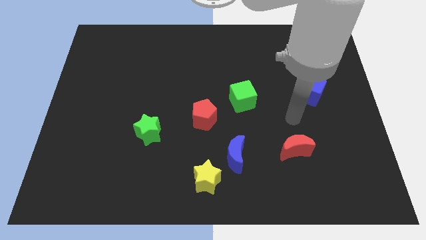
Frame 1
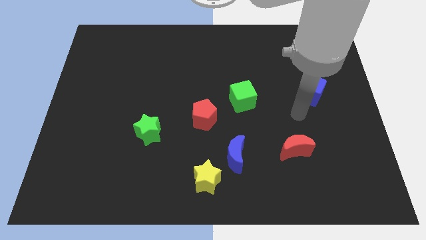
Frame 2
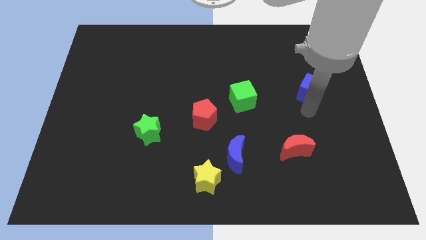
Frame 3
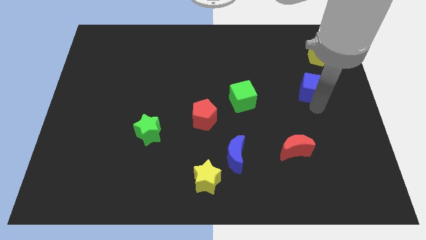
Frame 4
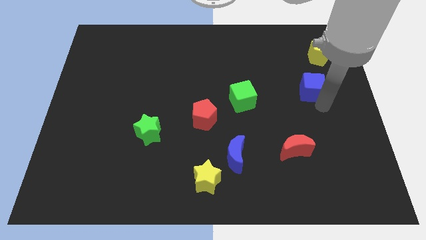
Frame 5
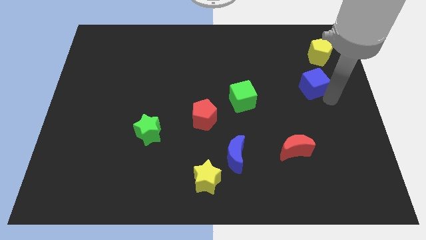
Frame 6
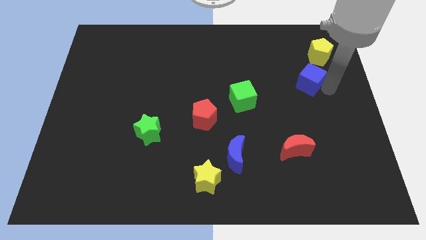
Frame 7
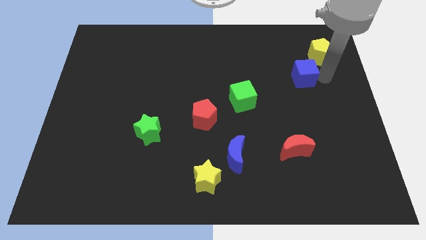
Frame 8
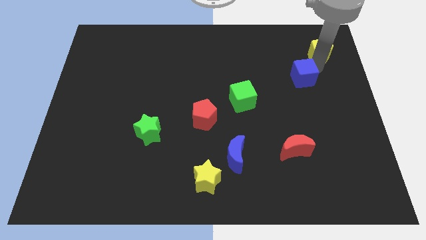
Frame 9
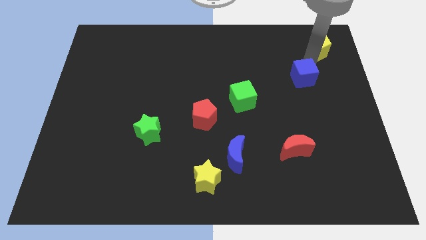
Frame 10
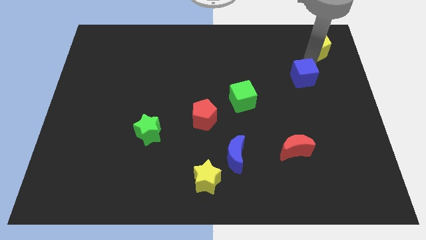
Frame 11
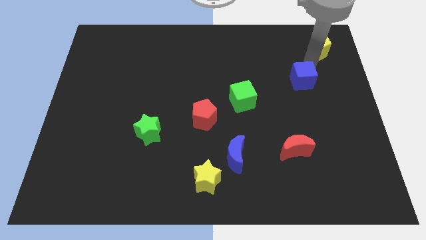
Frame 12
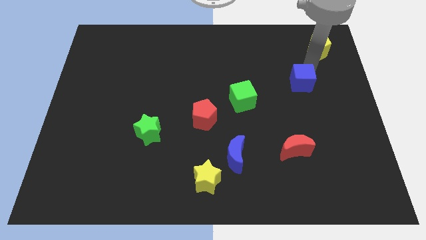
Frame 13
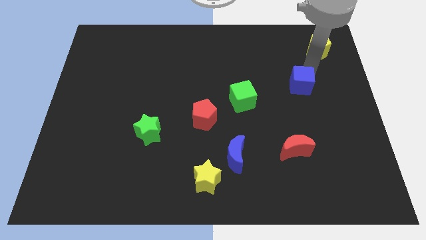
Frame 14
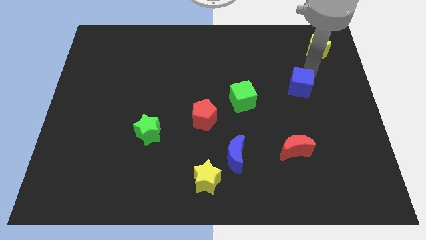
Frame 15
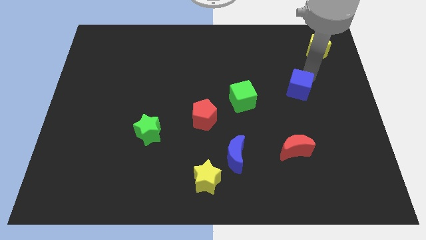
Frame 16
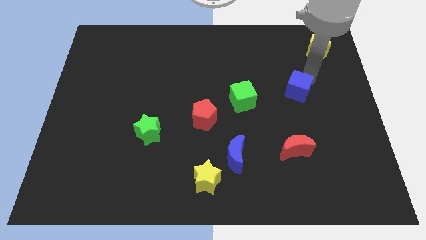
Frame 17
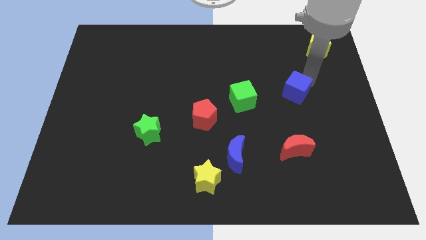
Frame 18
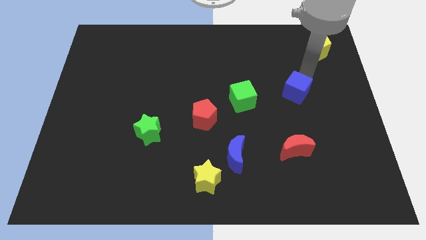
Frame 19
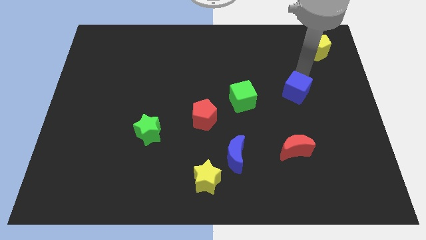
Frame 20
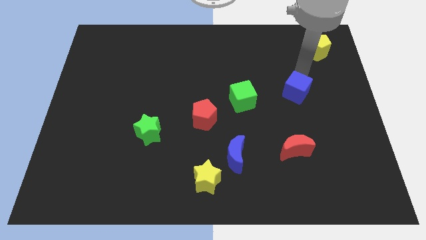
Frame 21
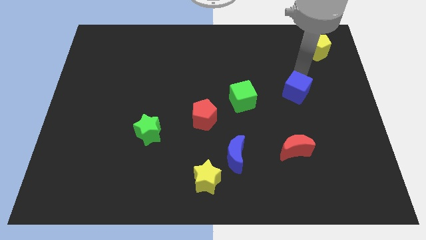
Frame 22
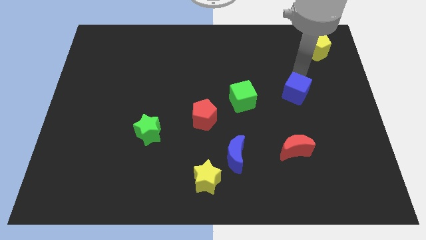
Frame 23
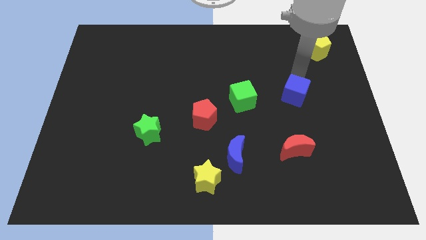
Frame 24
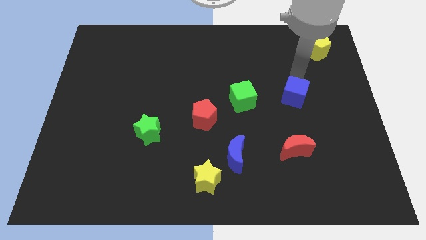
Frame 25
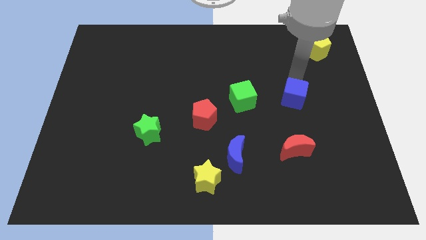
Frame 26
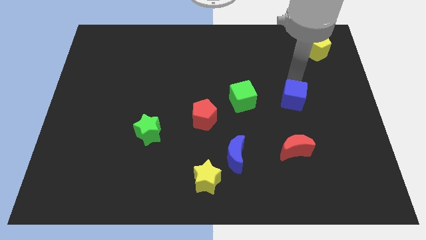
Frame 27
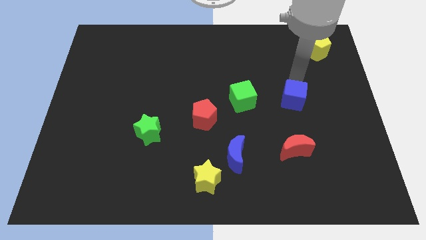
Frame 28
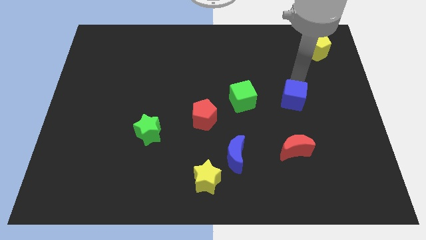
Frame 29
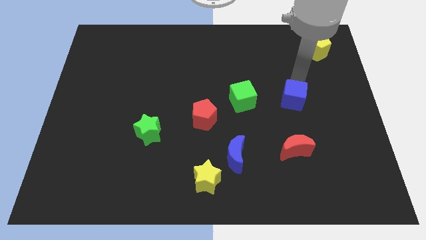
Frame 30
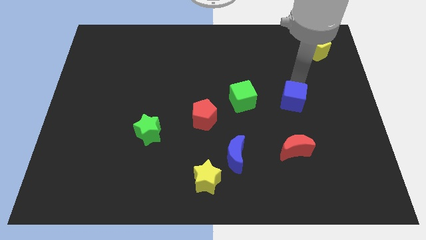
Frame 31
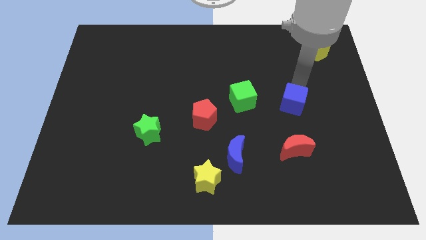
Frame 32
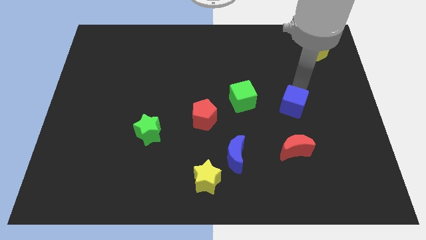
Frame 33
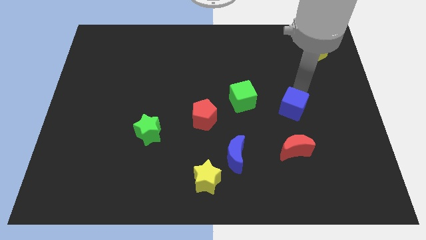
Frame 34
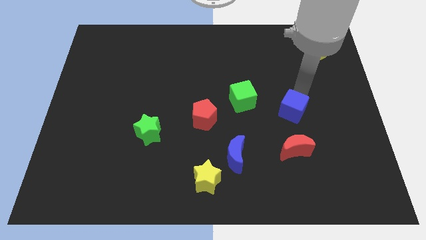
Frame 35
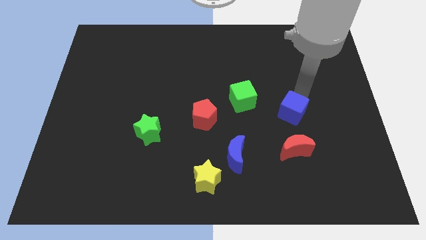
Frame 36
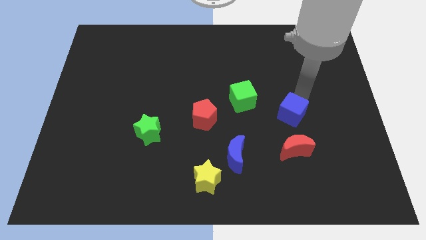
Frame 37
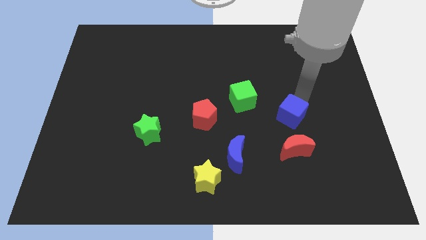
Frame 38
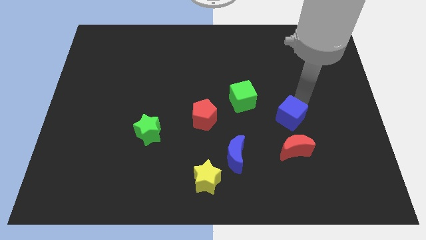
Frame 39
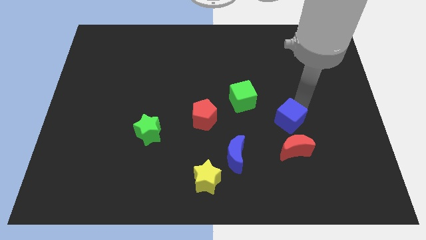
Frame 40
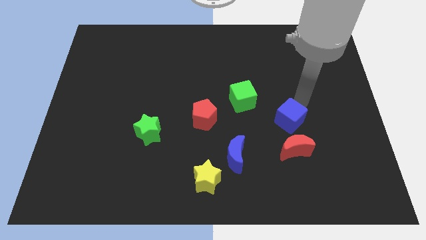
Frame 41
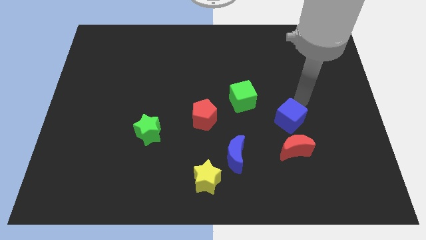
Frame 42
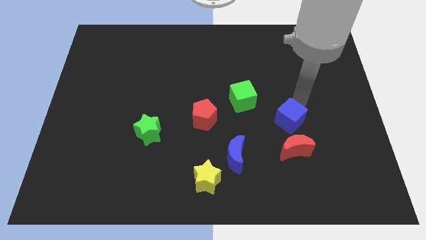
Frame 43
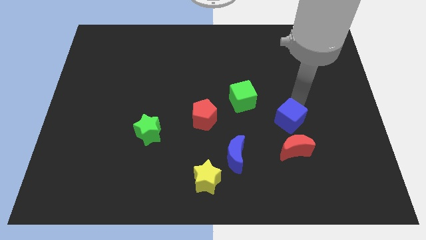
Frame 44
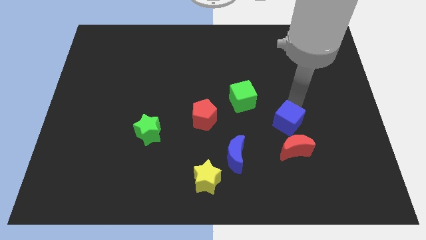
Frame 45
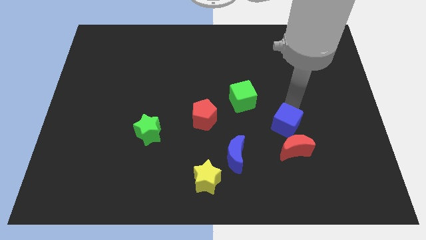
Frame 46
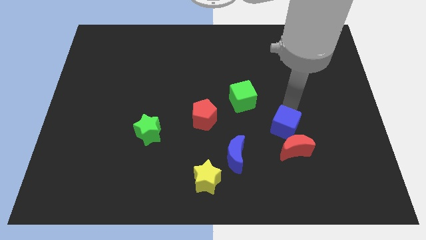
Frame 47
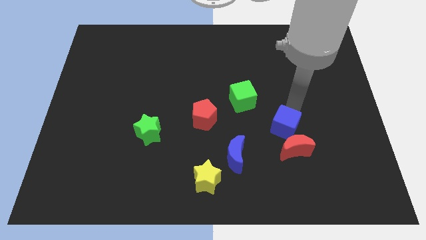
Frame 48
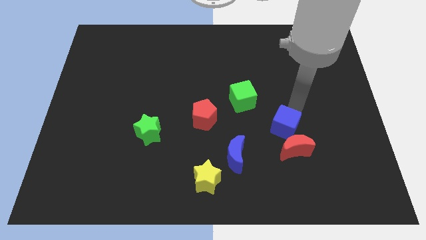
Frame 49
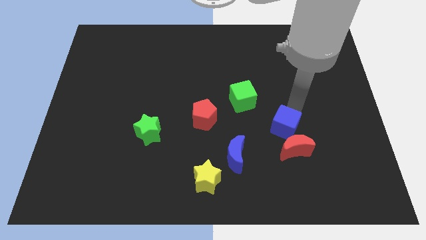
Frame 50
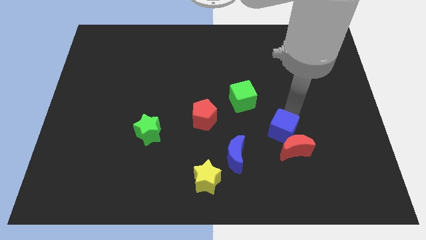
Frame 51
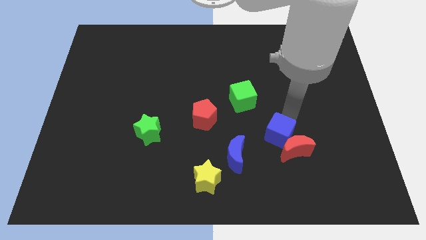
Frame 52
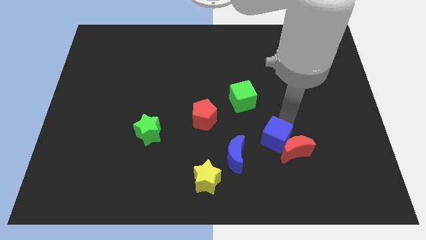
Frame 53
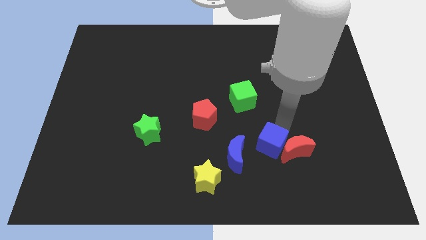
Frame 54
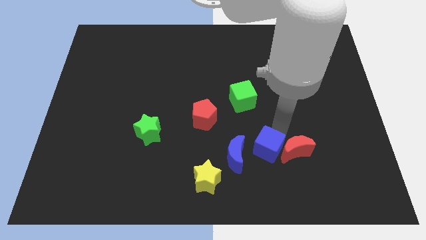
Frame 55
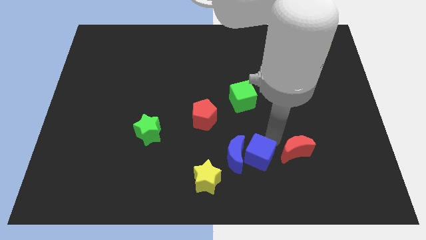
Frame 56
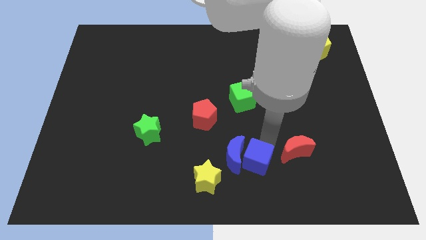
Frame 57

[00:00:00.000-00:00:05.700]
move the blue cube to the right of the yellow star

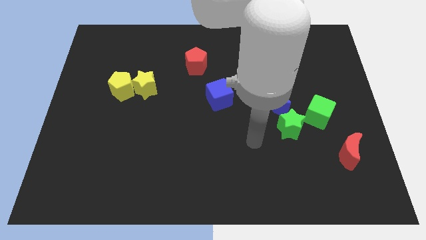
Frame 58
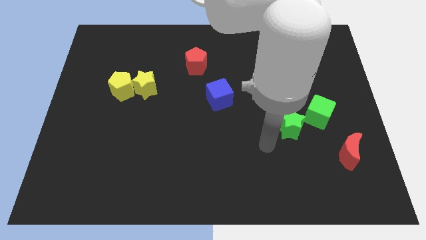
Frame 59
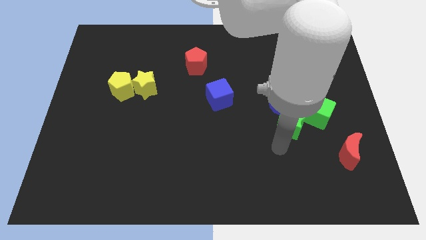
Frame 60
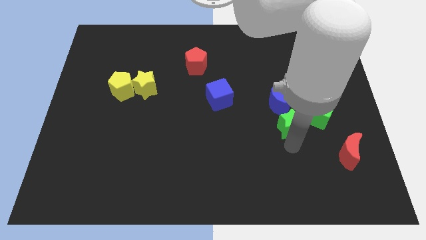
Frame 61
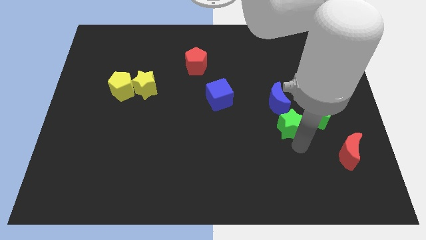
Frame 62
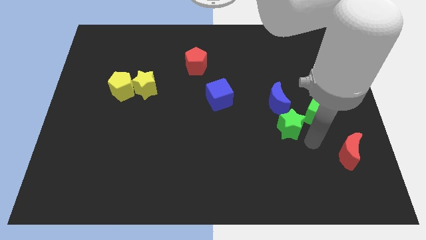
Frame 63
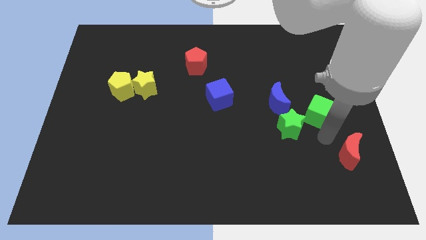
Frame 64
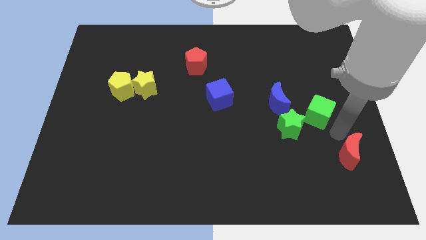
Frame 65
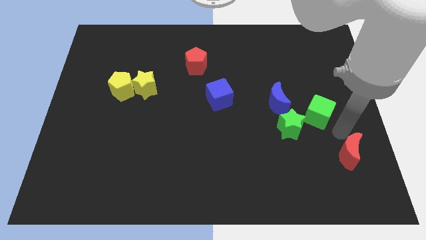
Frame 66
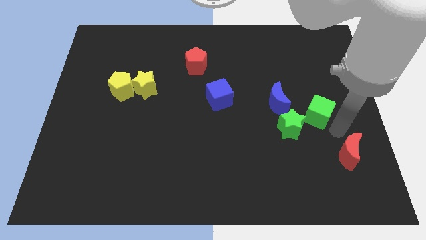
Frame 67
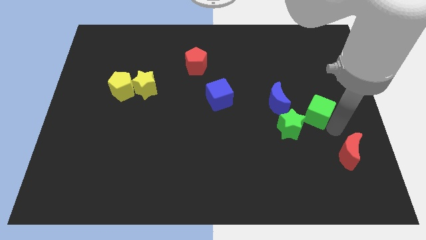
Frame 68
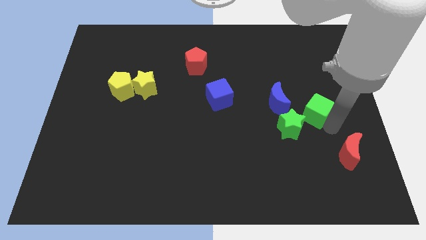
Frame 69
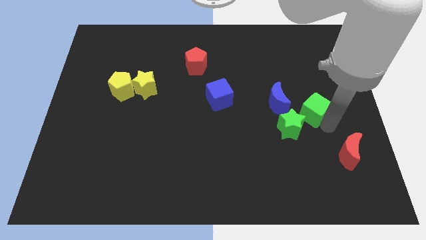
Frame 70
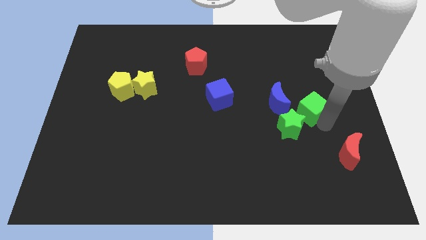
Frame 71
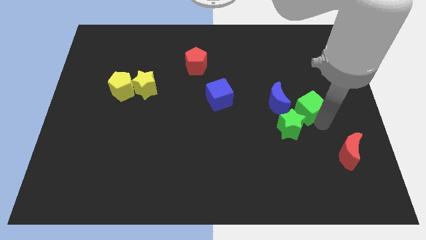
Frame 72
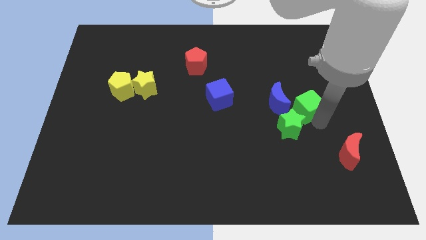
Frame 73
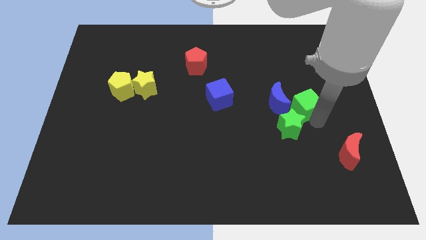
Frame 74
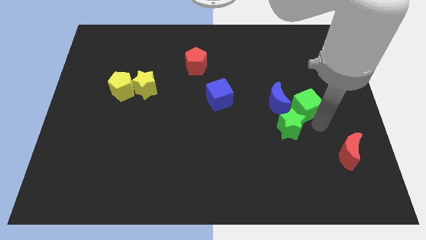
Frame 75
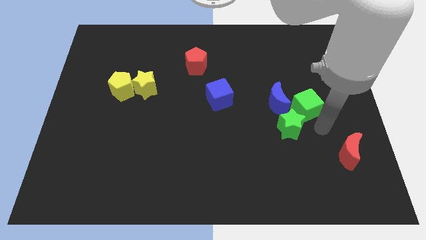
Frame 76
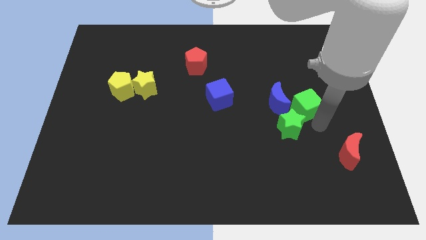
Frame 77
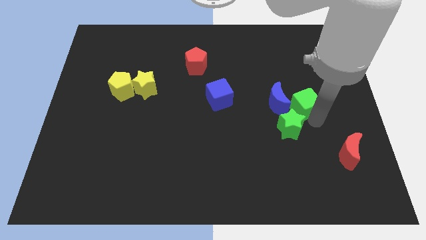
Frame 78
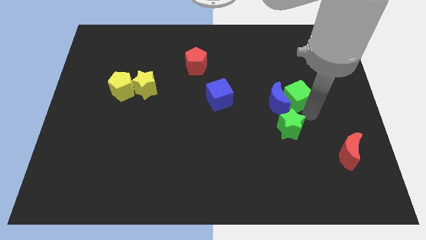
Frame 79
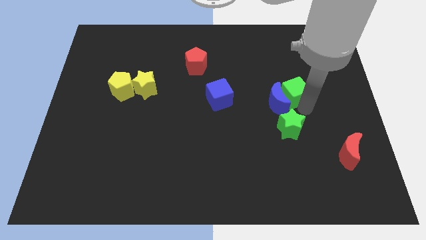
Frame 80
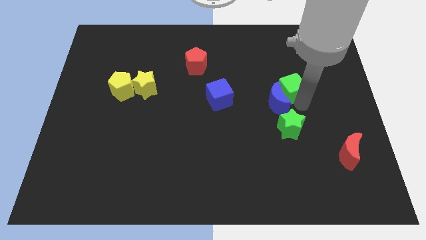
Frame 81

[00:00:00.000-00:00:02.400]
put the green cube to the top of the blue moon
